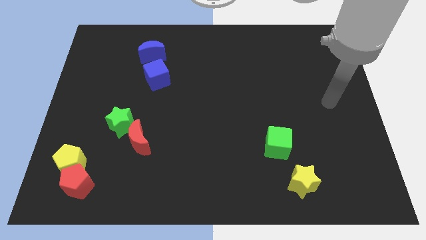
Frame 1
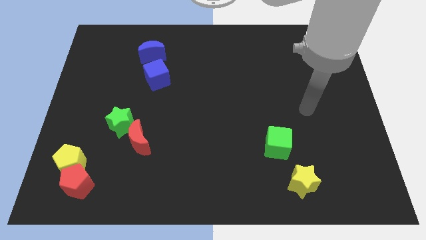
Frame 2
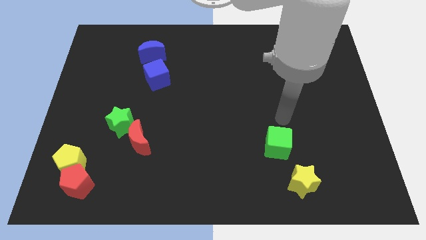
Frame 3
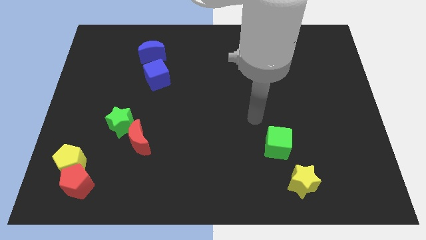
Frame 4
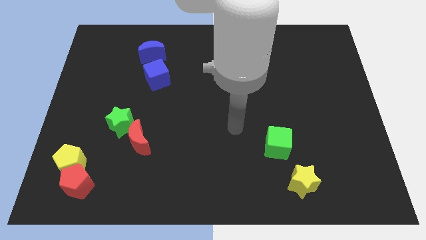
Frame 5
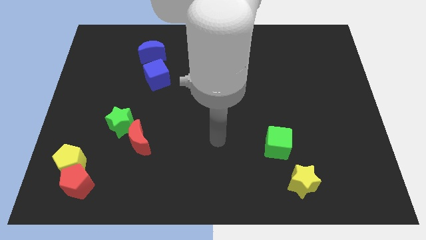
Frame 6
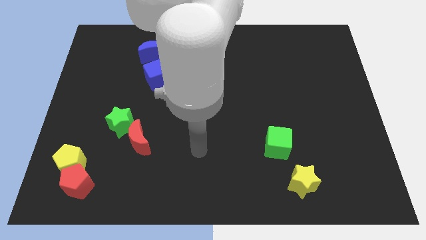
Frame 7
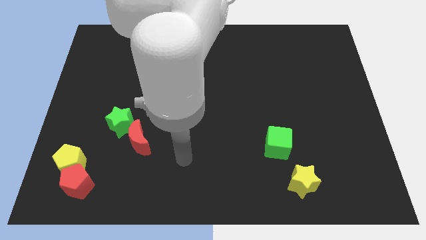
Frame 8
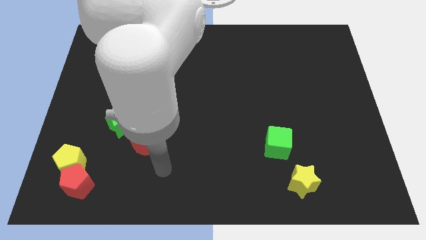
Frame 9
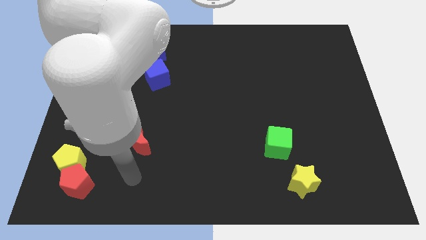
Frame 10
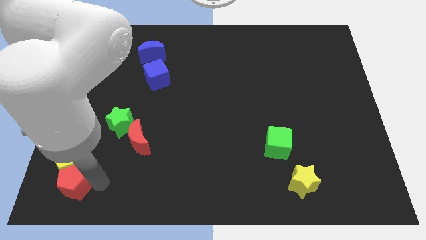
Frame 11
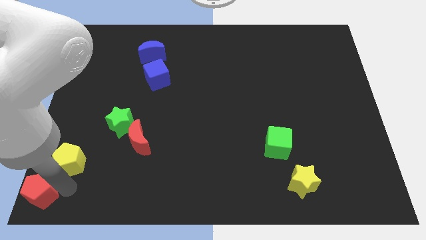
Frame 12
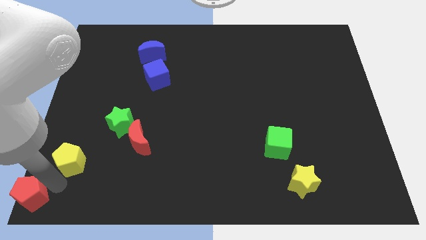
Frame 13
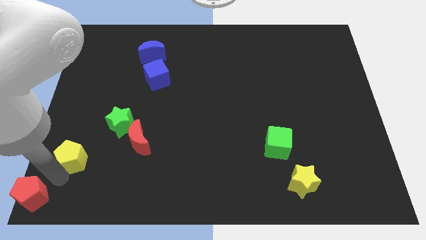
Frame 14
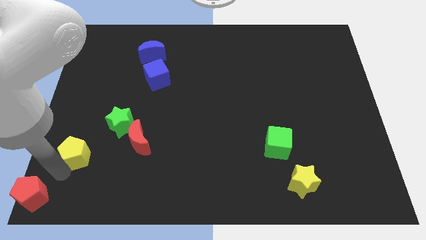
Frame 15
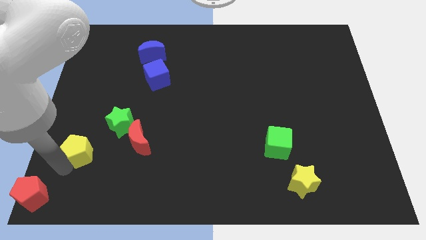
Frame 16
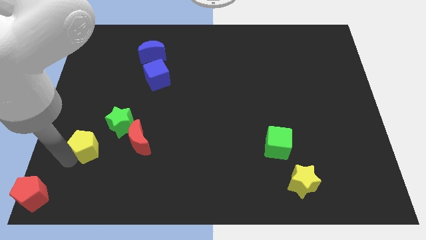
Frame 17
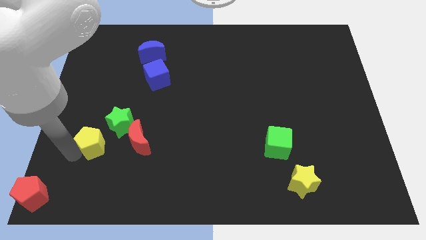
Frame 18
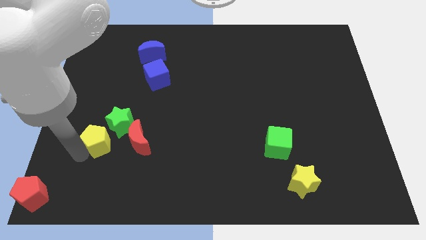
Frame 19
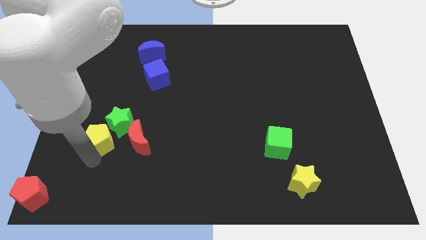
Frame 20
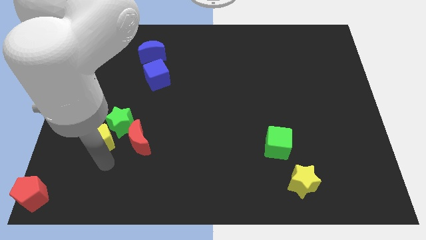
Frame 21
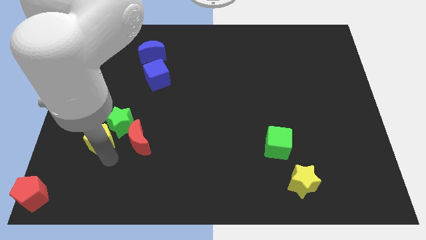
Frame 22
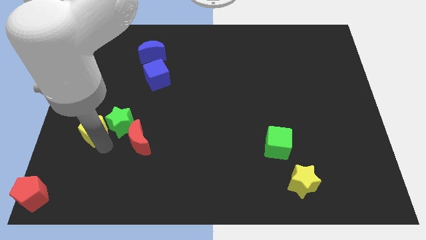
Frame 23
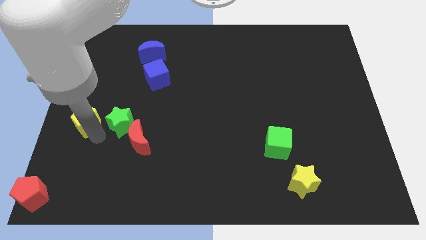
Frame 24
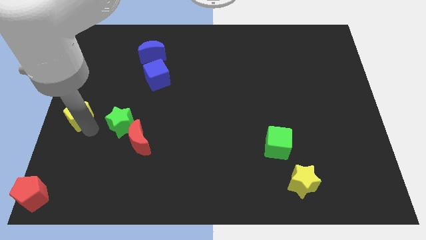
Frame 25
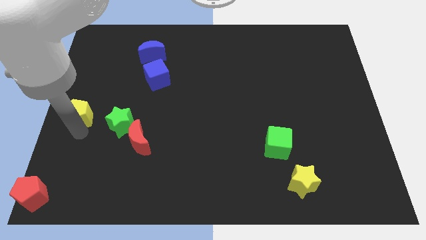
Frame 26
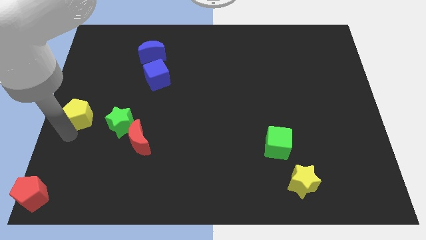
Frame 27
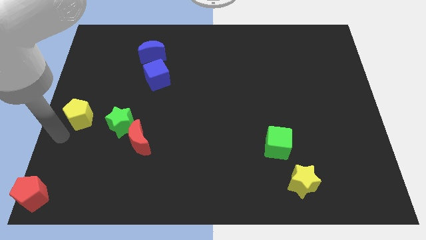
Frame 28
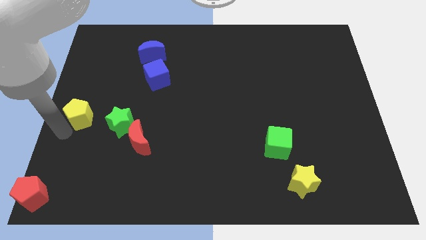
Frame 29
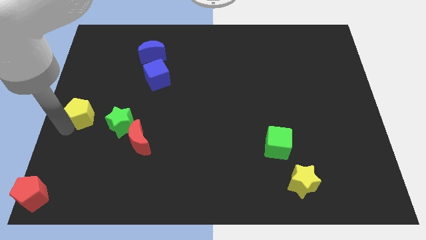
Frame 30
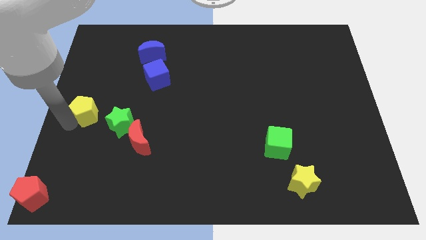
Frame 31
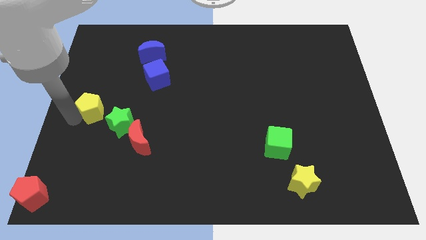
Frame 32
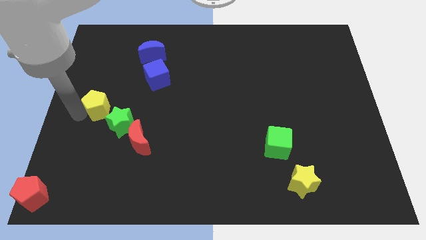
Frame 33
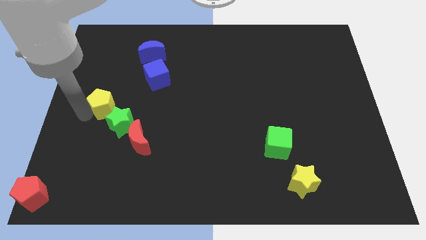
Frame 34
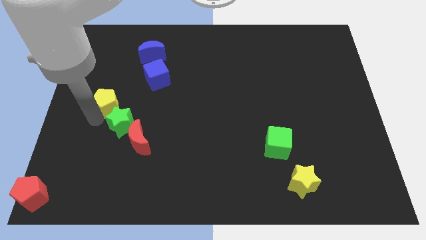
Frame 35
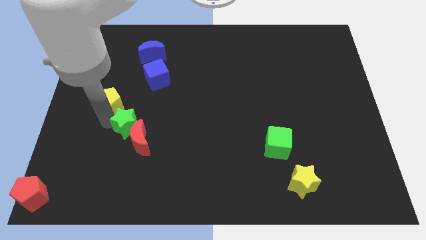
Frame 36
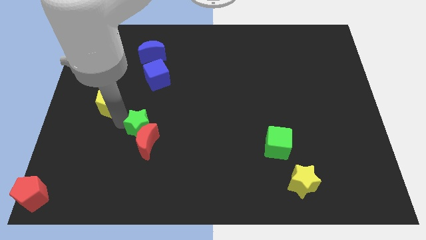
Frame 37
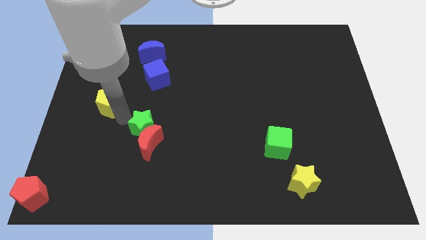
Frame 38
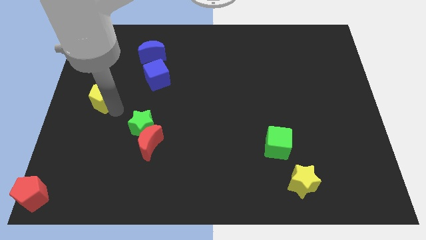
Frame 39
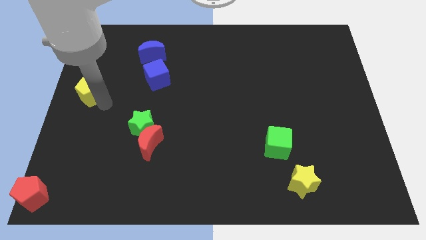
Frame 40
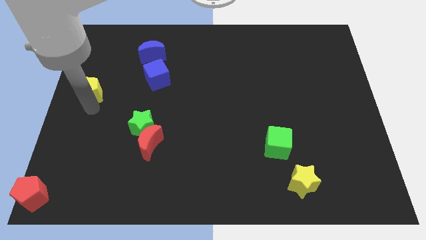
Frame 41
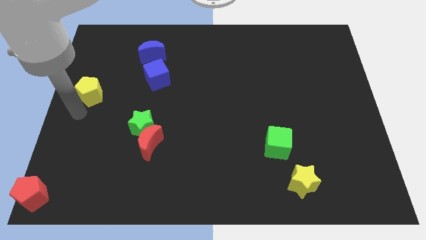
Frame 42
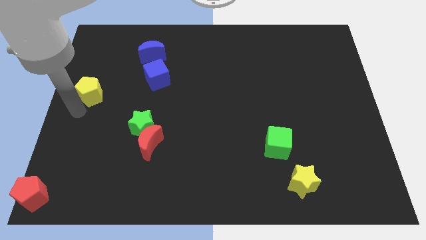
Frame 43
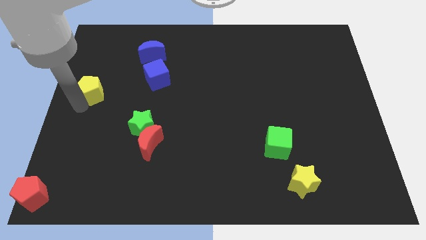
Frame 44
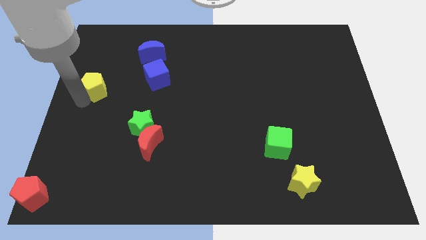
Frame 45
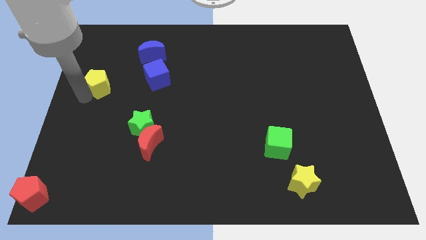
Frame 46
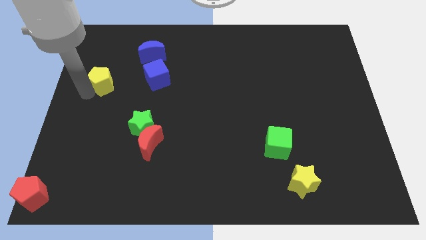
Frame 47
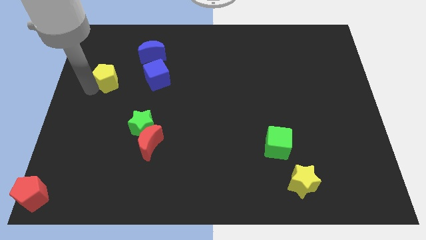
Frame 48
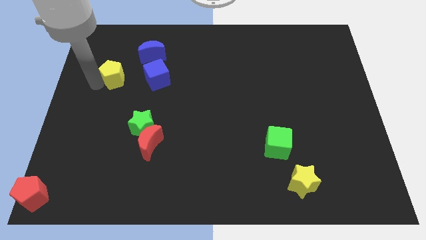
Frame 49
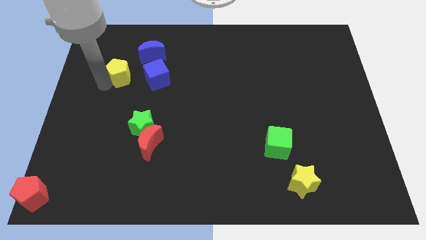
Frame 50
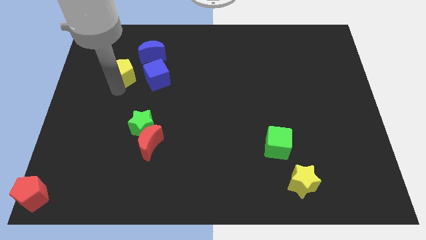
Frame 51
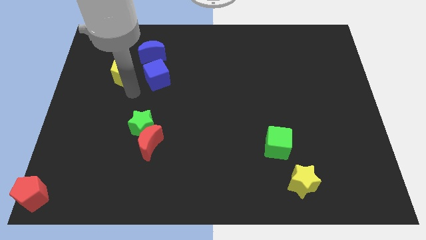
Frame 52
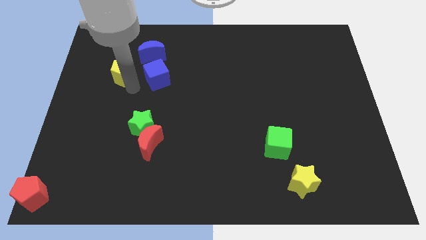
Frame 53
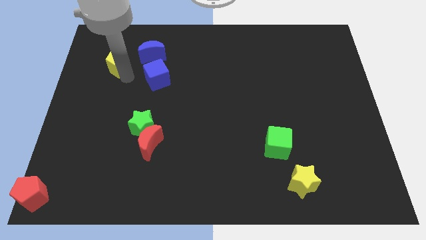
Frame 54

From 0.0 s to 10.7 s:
put the yellow pentagon left of the blue moon
